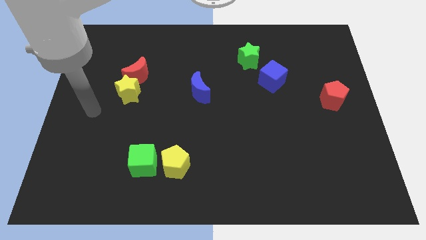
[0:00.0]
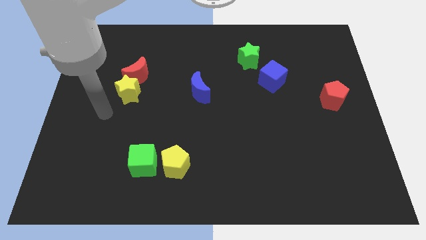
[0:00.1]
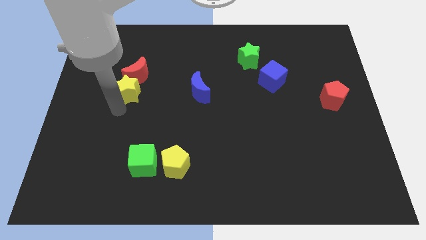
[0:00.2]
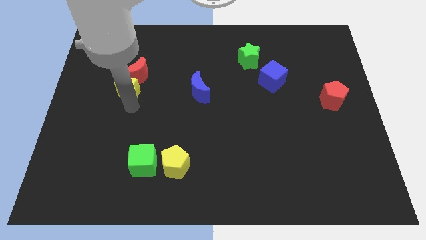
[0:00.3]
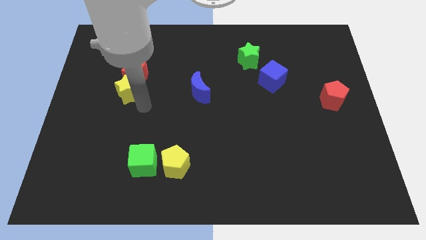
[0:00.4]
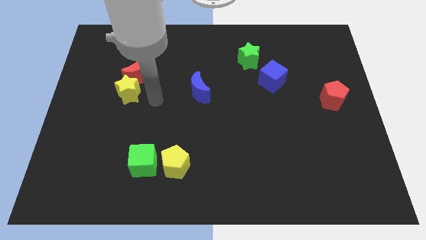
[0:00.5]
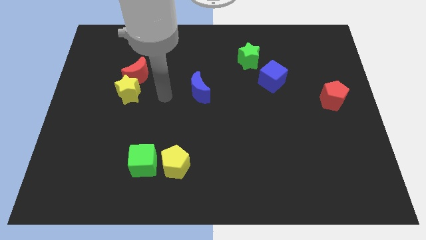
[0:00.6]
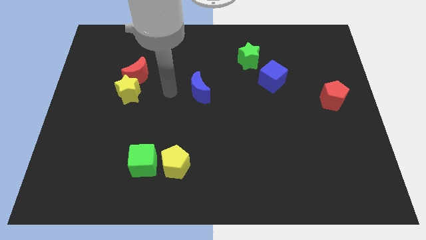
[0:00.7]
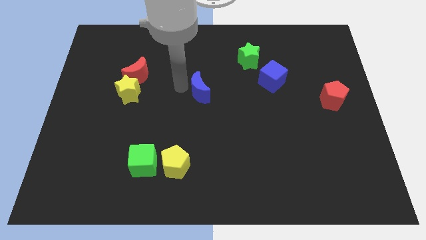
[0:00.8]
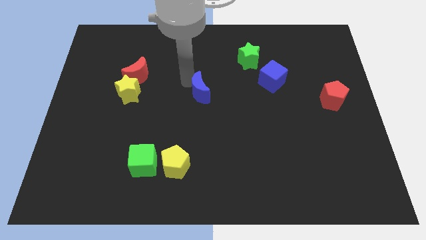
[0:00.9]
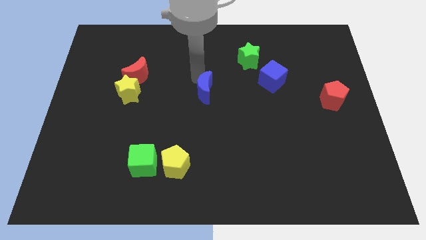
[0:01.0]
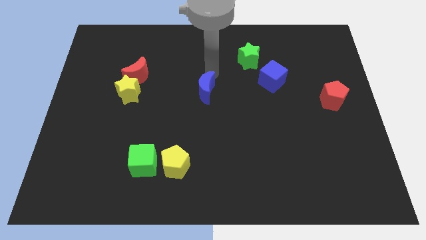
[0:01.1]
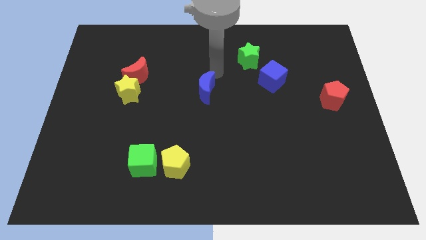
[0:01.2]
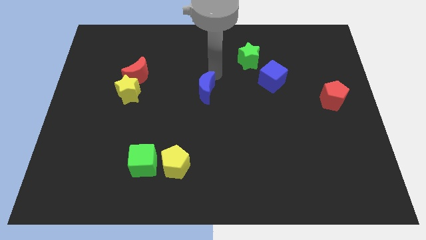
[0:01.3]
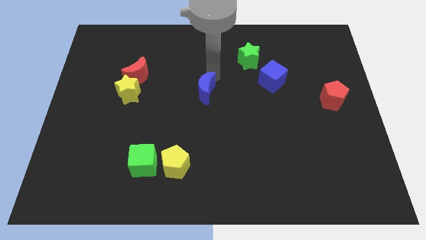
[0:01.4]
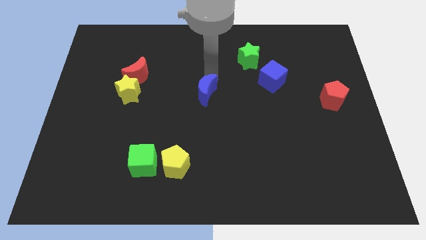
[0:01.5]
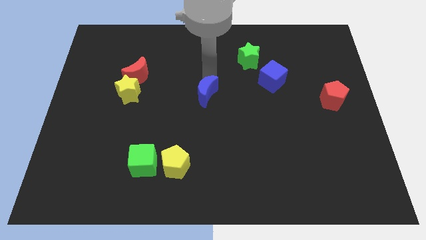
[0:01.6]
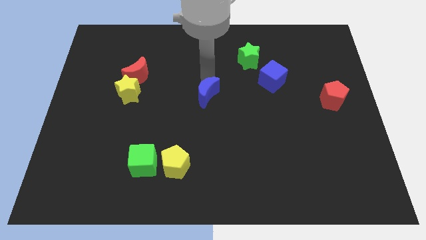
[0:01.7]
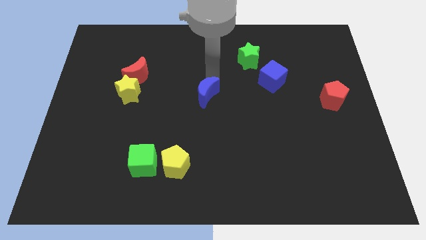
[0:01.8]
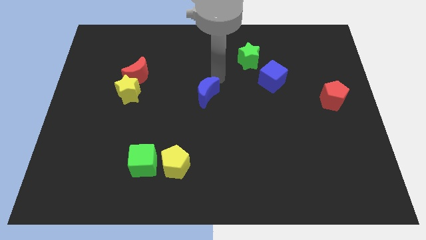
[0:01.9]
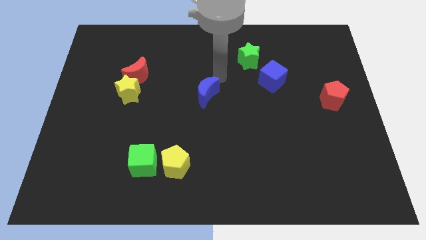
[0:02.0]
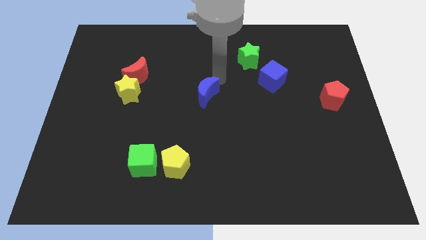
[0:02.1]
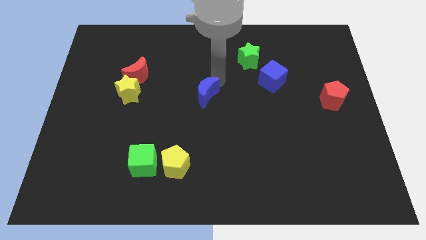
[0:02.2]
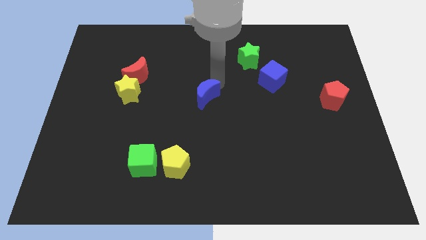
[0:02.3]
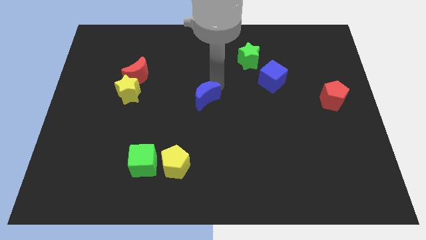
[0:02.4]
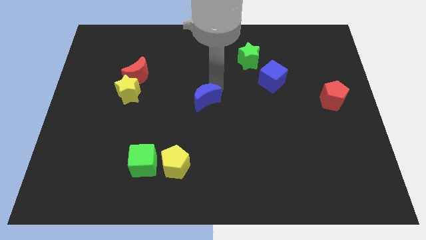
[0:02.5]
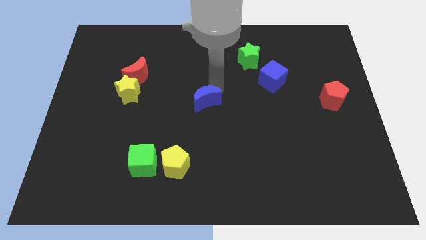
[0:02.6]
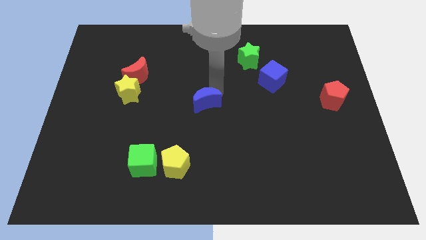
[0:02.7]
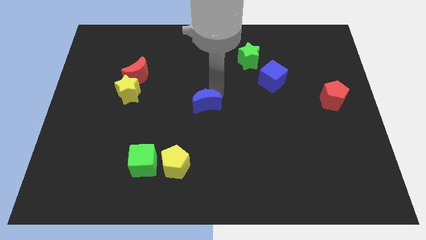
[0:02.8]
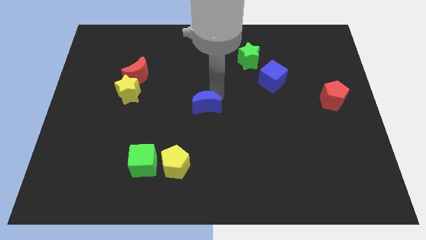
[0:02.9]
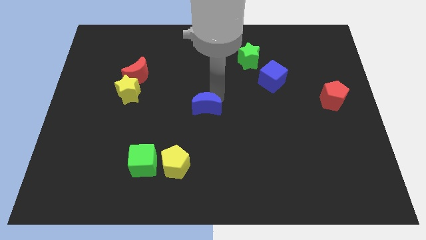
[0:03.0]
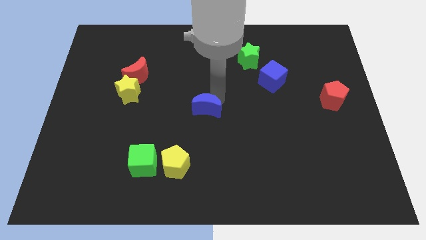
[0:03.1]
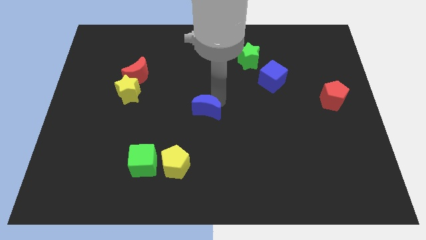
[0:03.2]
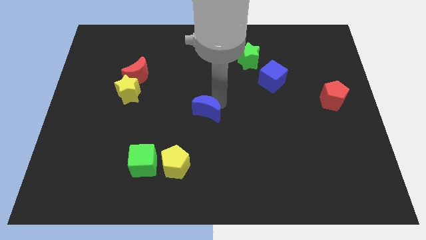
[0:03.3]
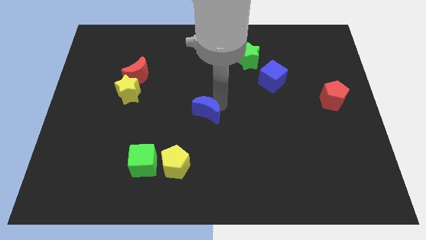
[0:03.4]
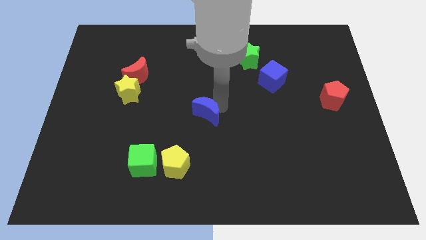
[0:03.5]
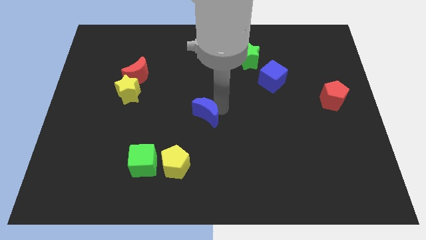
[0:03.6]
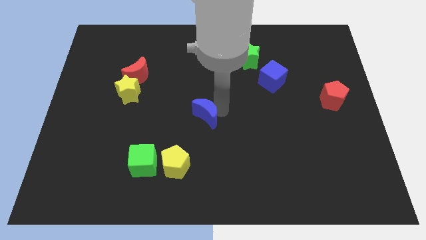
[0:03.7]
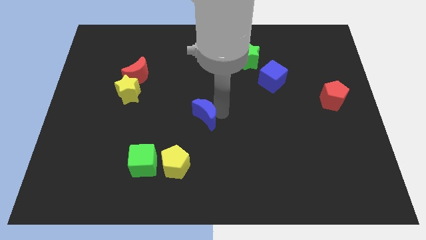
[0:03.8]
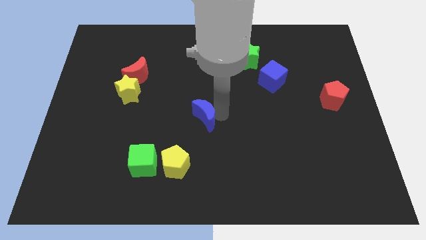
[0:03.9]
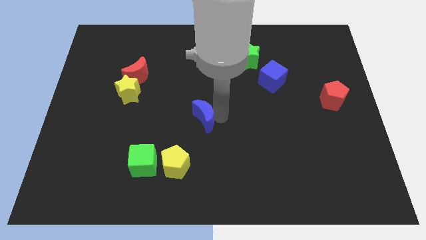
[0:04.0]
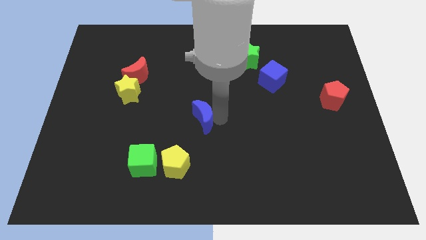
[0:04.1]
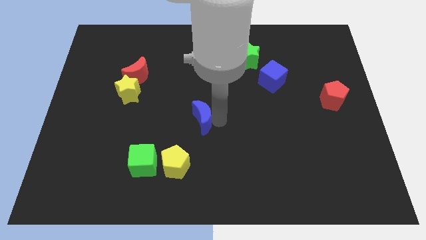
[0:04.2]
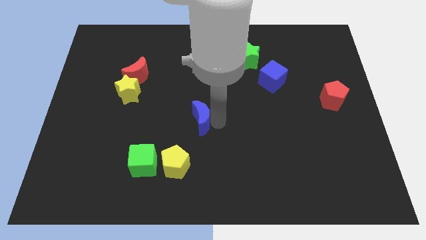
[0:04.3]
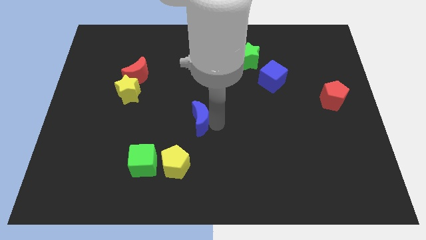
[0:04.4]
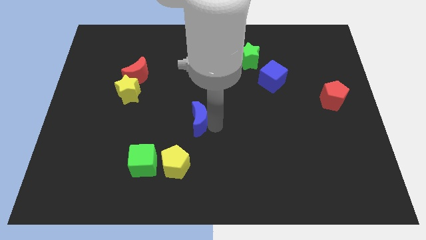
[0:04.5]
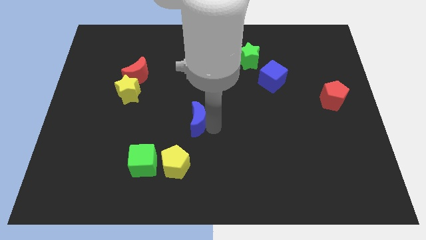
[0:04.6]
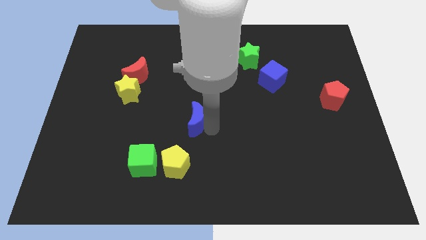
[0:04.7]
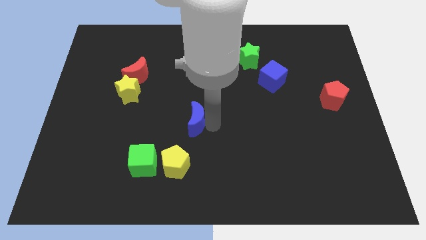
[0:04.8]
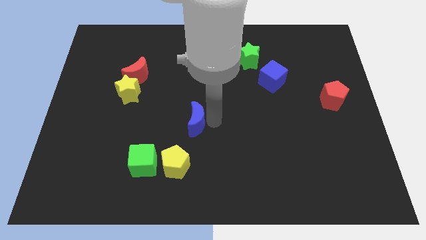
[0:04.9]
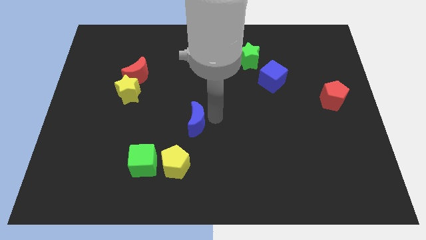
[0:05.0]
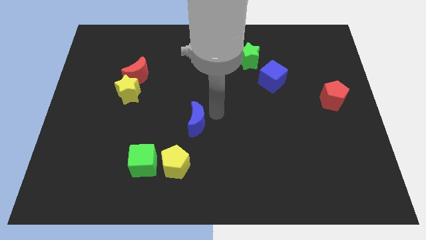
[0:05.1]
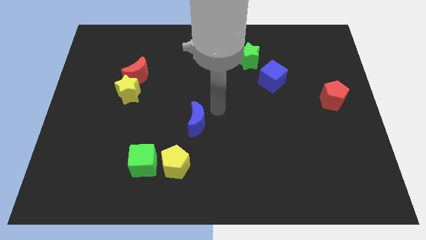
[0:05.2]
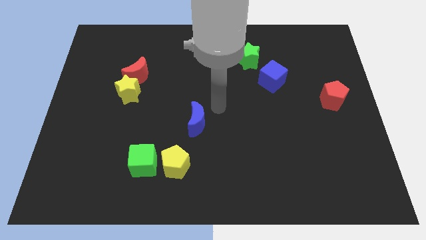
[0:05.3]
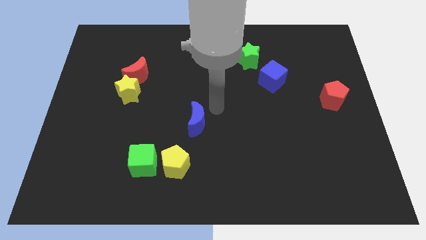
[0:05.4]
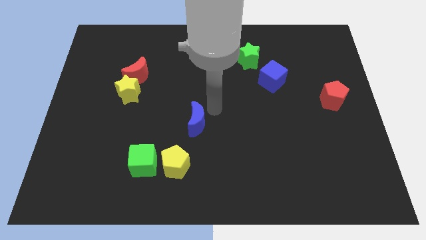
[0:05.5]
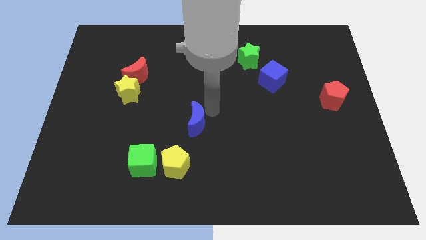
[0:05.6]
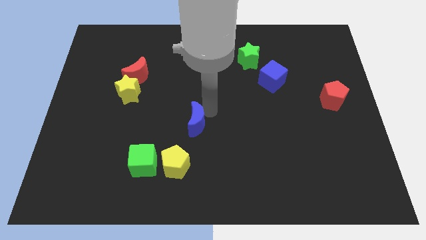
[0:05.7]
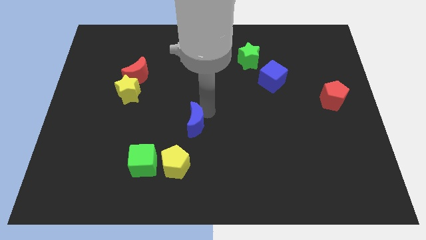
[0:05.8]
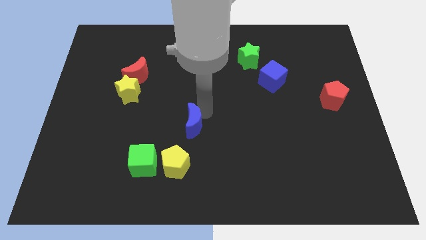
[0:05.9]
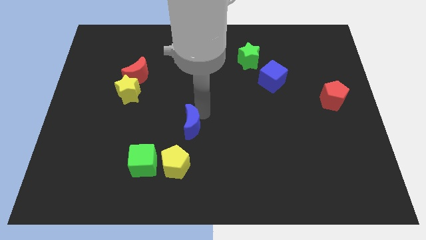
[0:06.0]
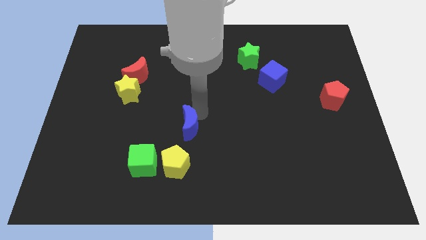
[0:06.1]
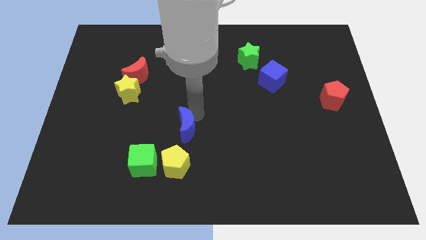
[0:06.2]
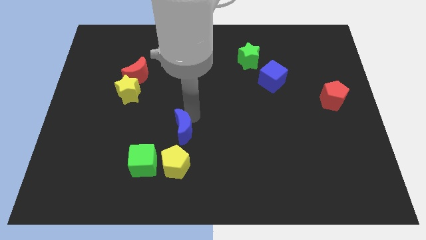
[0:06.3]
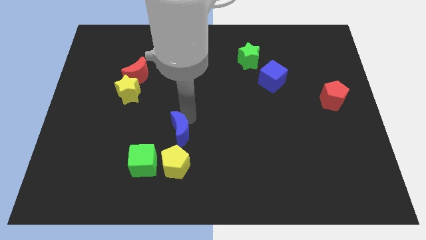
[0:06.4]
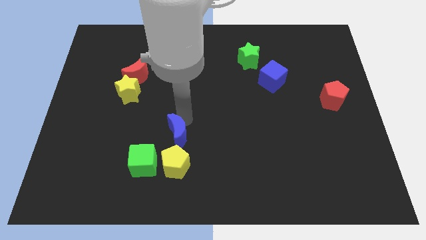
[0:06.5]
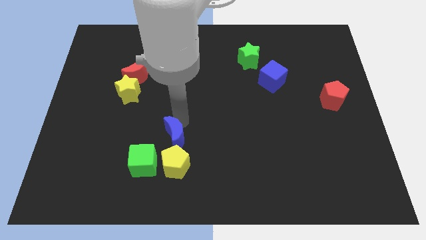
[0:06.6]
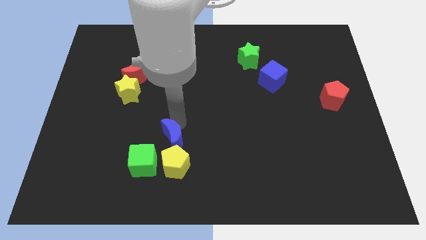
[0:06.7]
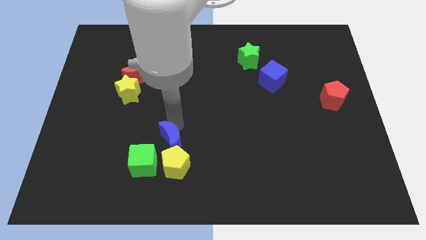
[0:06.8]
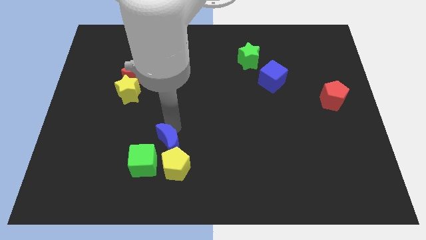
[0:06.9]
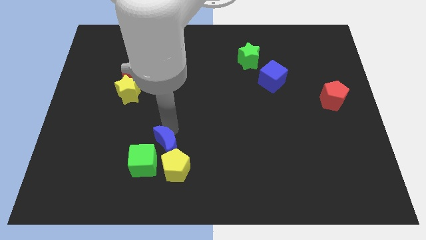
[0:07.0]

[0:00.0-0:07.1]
move the blue moon close to the yellow pentagon

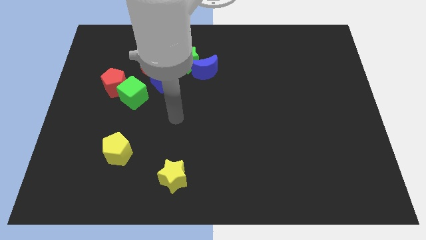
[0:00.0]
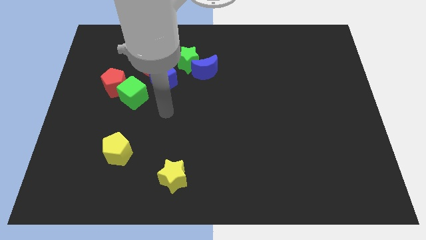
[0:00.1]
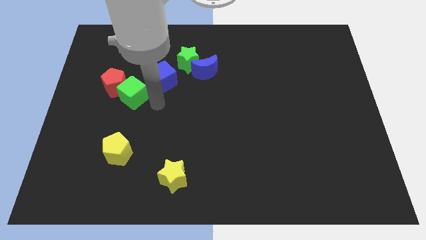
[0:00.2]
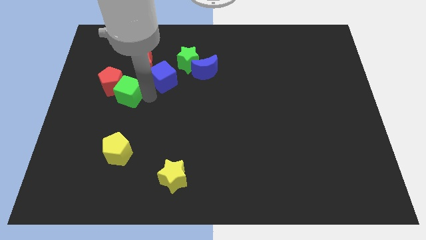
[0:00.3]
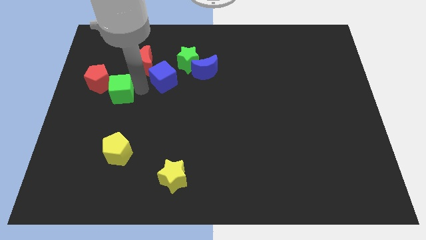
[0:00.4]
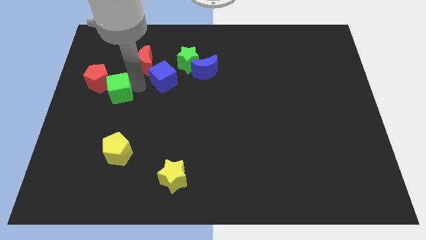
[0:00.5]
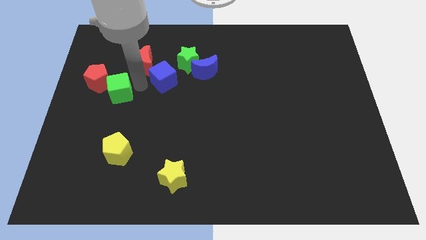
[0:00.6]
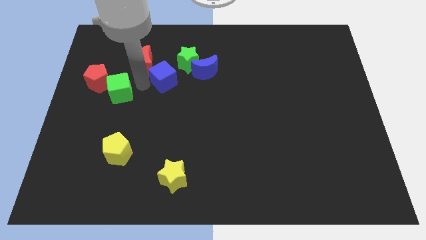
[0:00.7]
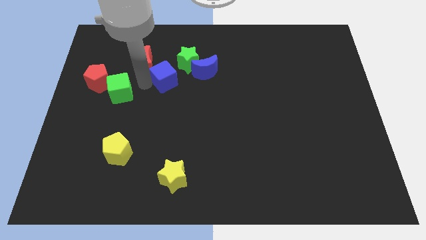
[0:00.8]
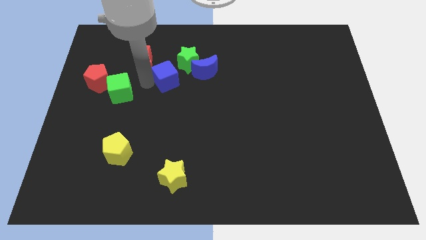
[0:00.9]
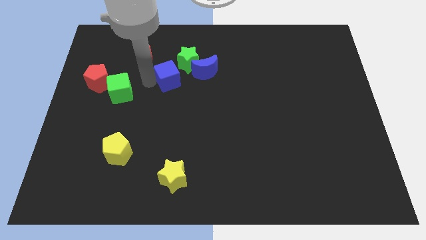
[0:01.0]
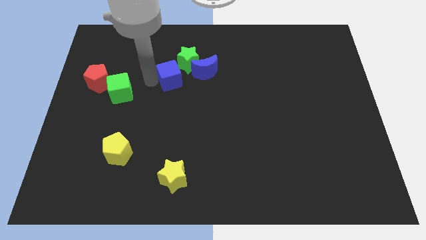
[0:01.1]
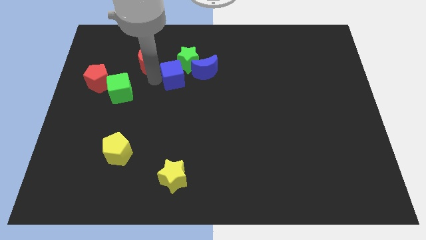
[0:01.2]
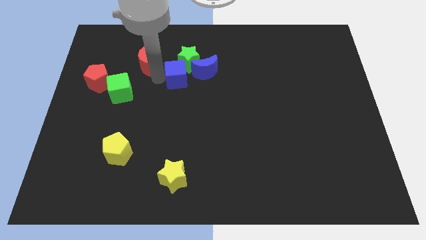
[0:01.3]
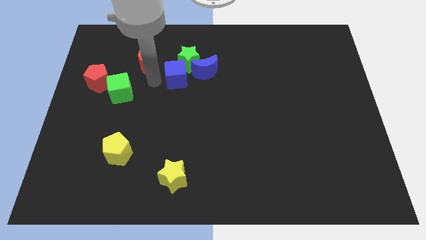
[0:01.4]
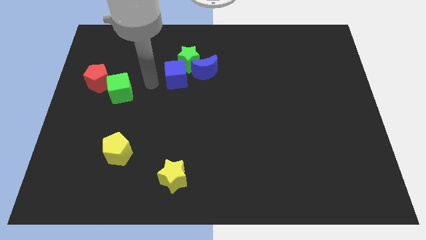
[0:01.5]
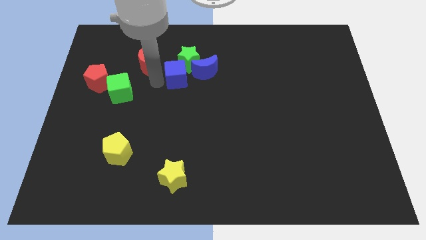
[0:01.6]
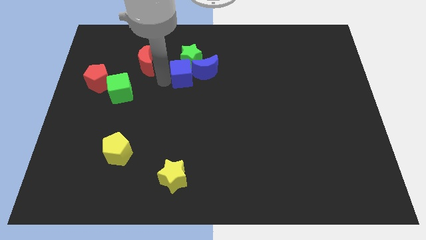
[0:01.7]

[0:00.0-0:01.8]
move the blue cube next to the blue moon
